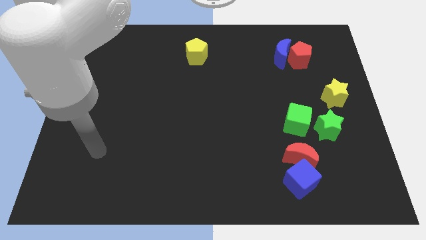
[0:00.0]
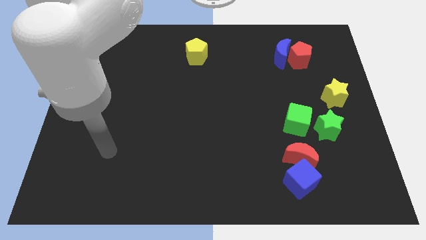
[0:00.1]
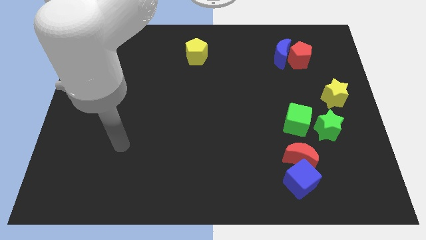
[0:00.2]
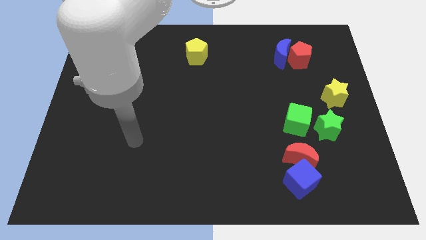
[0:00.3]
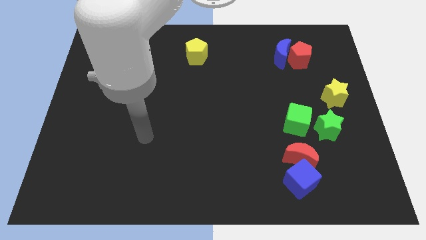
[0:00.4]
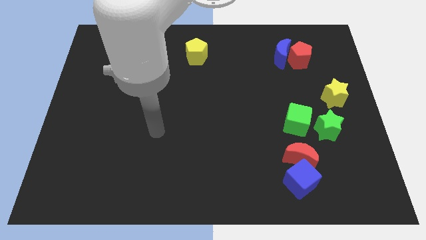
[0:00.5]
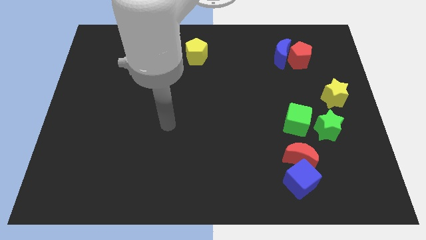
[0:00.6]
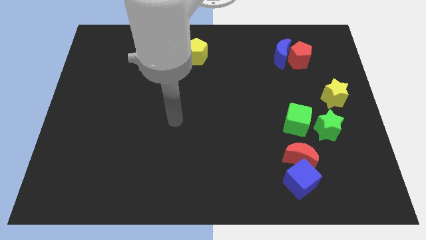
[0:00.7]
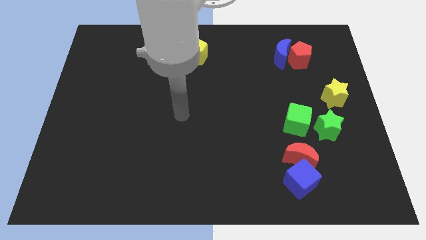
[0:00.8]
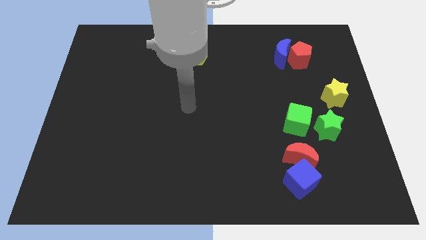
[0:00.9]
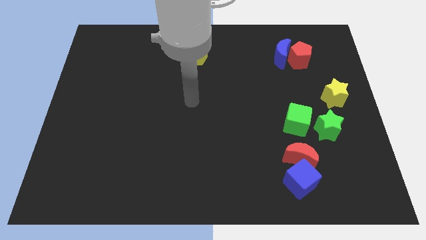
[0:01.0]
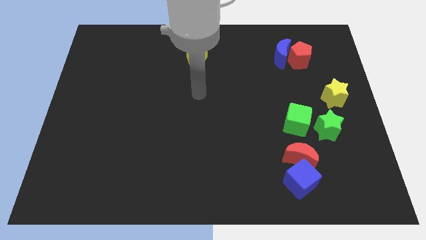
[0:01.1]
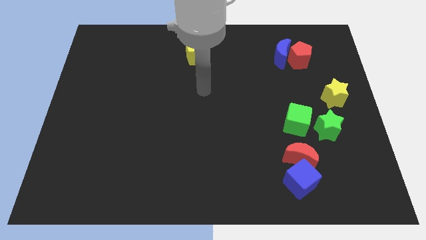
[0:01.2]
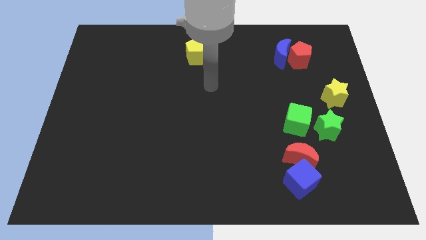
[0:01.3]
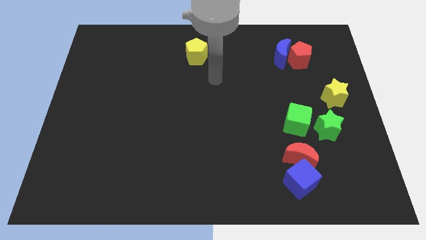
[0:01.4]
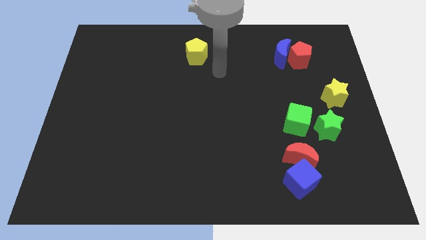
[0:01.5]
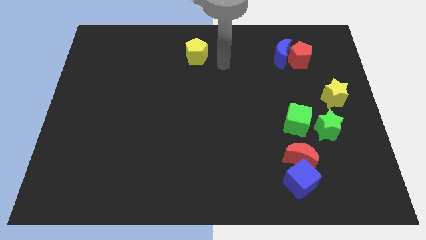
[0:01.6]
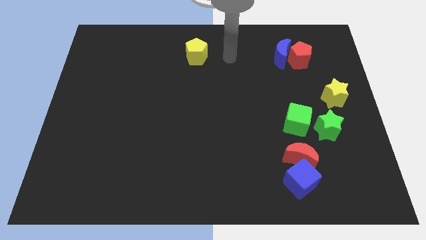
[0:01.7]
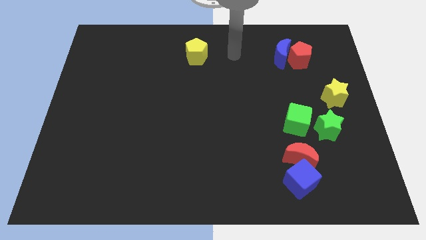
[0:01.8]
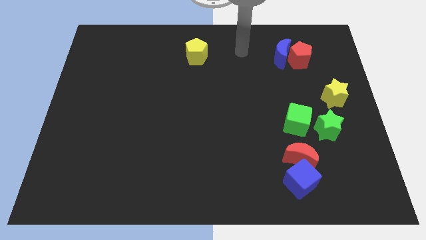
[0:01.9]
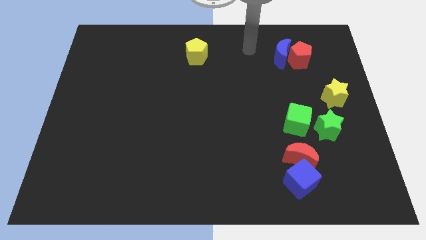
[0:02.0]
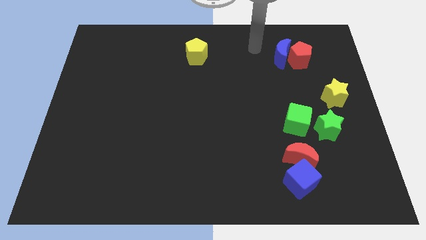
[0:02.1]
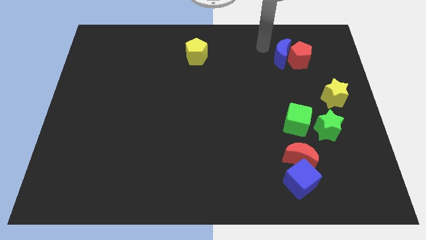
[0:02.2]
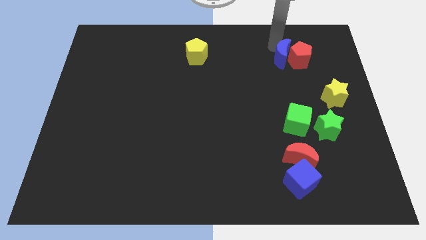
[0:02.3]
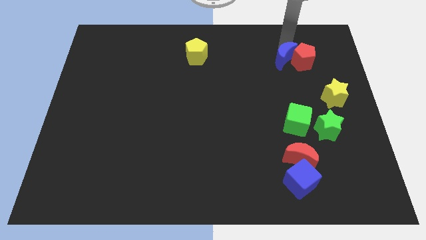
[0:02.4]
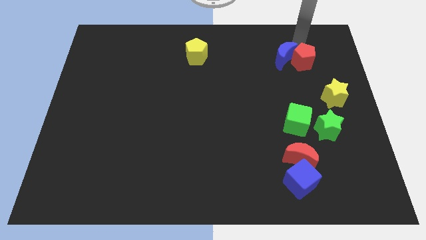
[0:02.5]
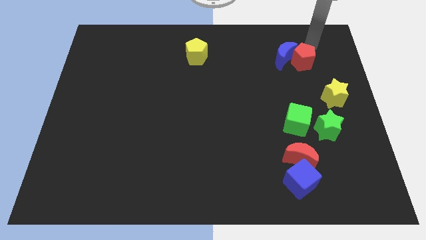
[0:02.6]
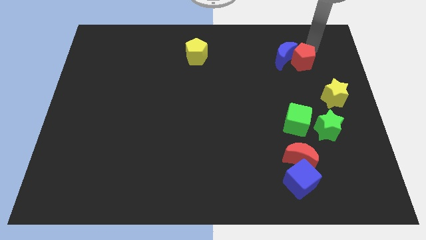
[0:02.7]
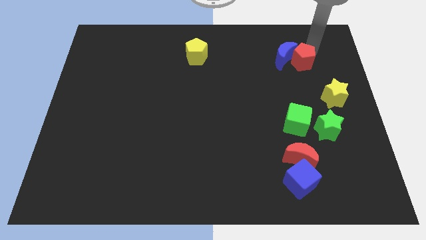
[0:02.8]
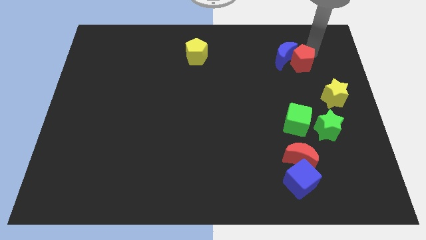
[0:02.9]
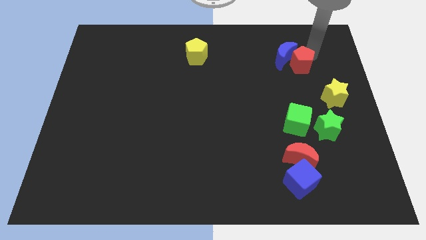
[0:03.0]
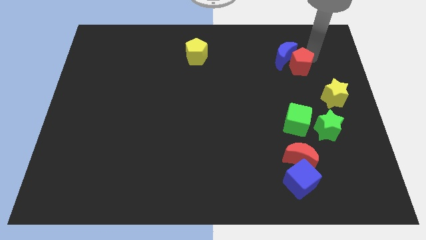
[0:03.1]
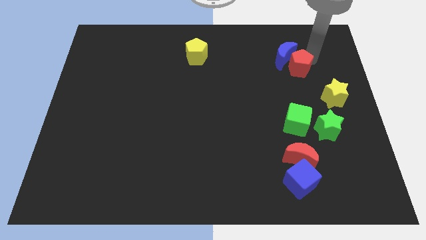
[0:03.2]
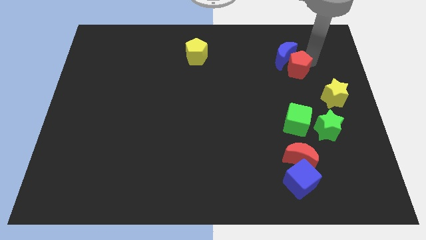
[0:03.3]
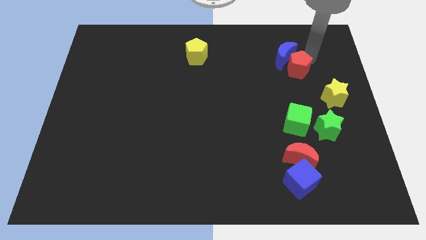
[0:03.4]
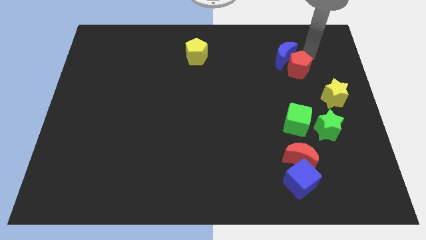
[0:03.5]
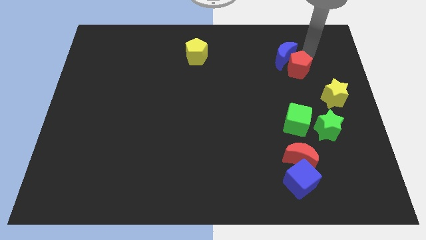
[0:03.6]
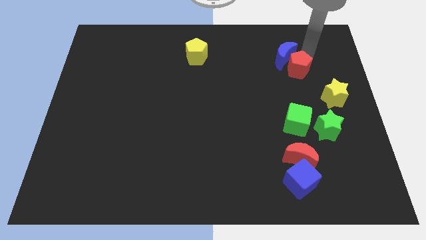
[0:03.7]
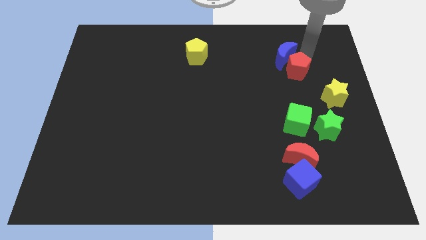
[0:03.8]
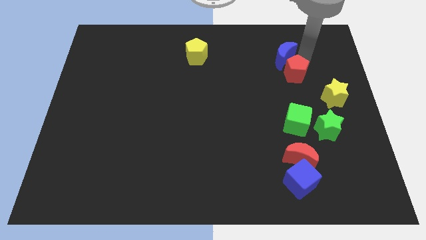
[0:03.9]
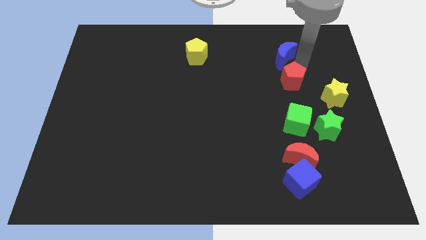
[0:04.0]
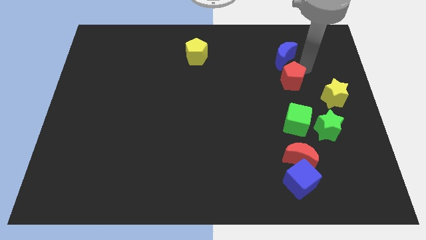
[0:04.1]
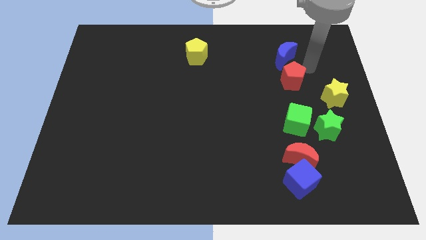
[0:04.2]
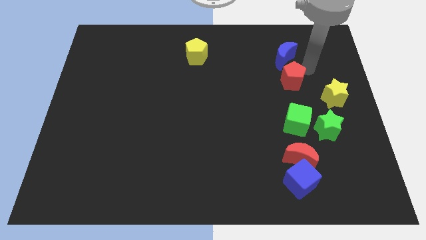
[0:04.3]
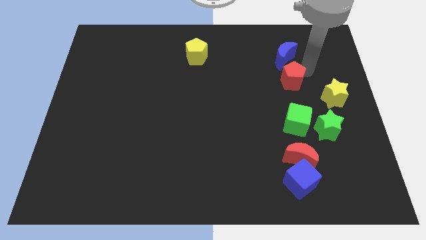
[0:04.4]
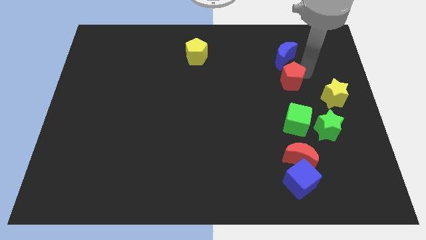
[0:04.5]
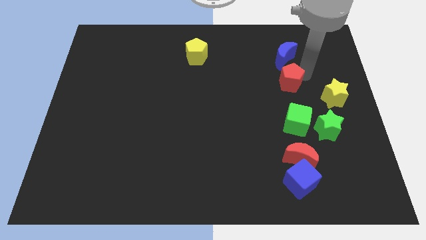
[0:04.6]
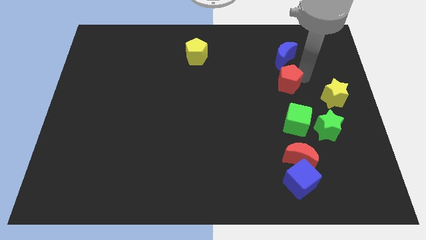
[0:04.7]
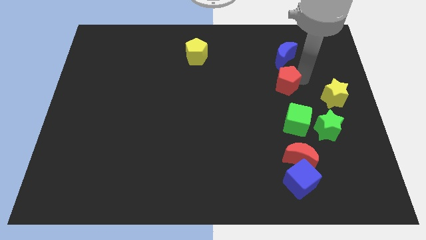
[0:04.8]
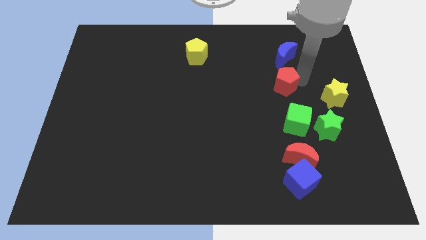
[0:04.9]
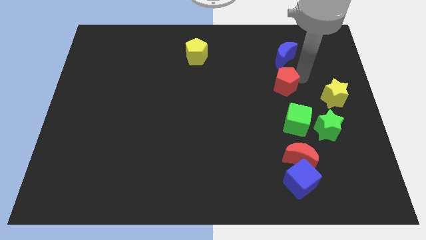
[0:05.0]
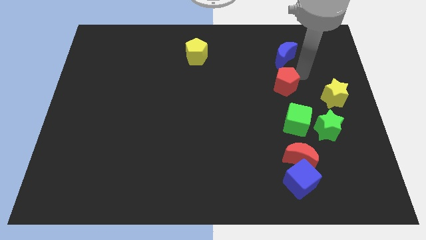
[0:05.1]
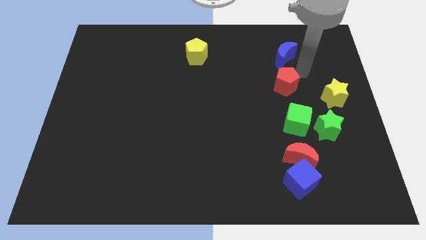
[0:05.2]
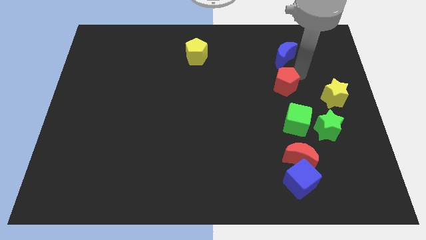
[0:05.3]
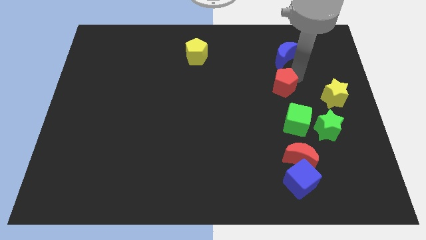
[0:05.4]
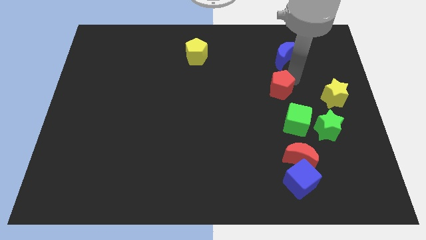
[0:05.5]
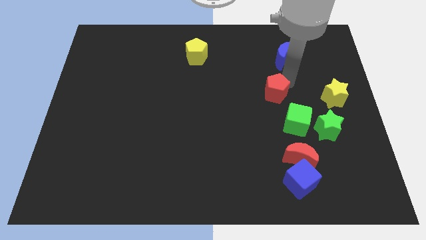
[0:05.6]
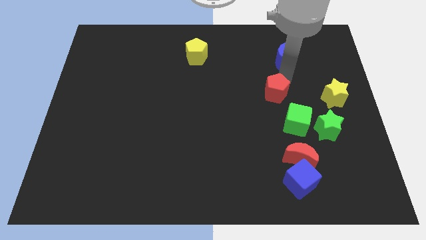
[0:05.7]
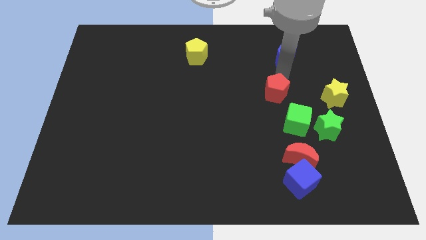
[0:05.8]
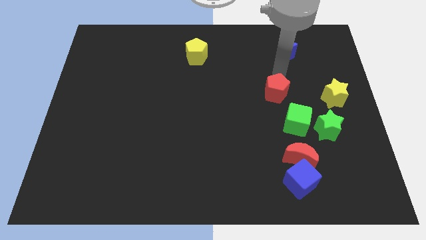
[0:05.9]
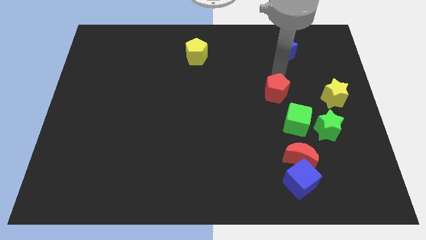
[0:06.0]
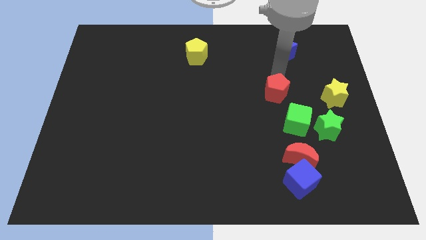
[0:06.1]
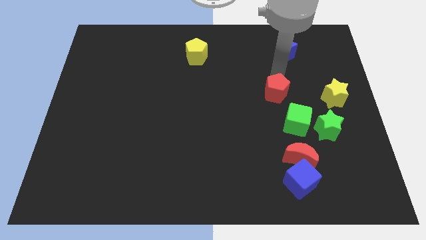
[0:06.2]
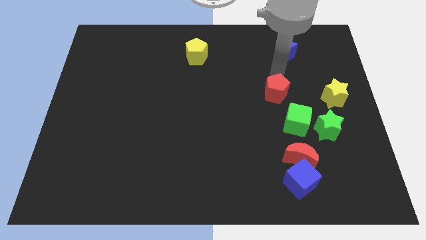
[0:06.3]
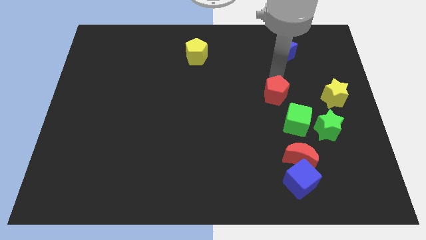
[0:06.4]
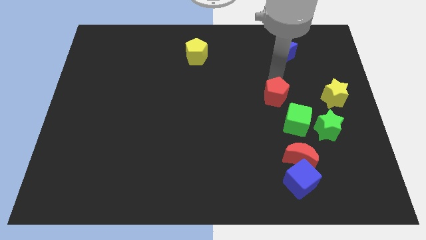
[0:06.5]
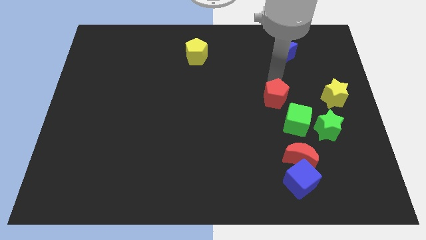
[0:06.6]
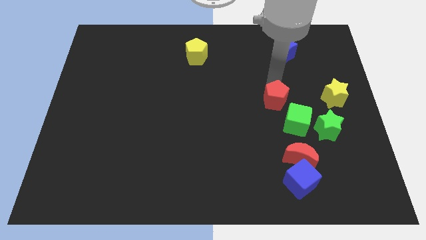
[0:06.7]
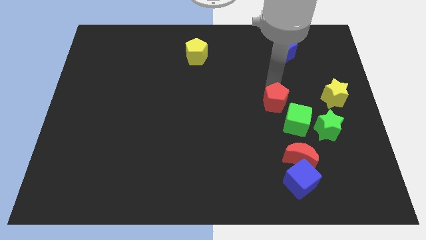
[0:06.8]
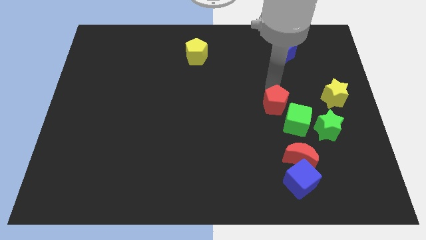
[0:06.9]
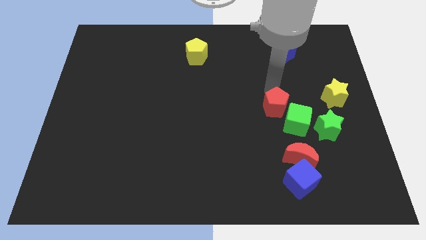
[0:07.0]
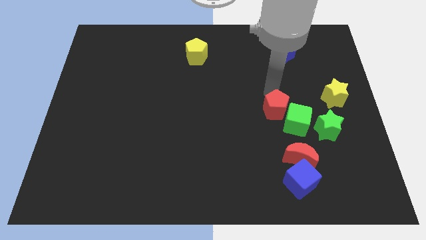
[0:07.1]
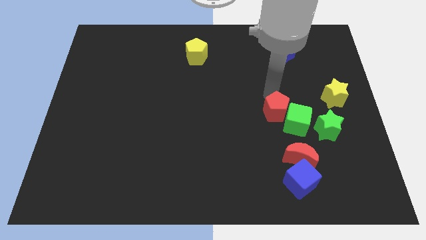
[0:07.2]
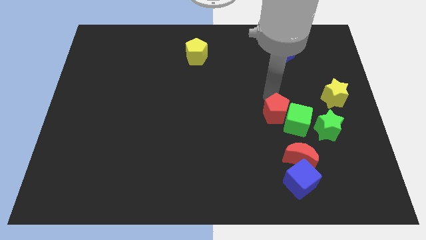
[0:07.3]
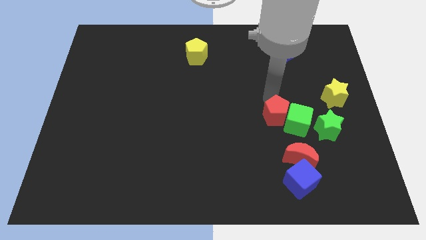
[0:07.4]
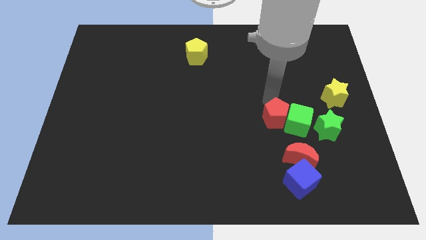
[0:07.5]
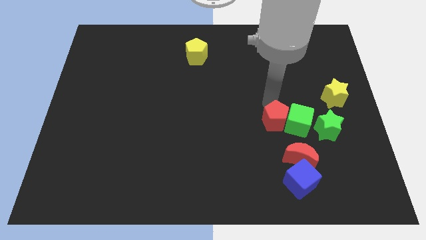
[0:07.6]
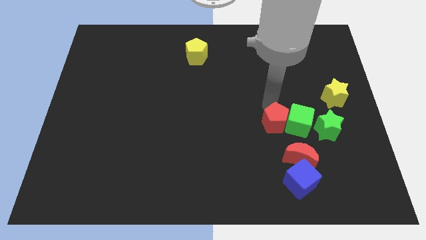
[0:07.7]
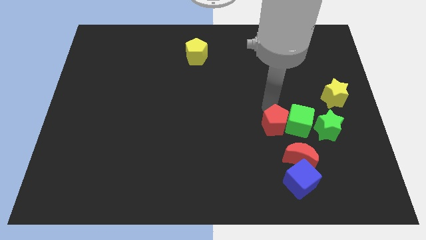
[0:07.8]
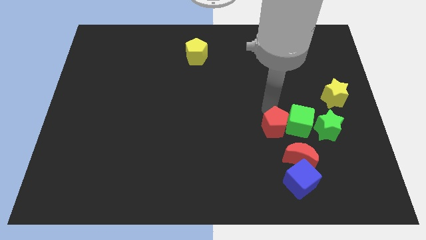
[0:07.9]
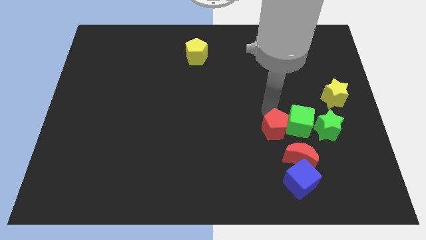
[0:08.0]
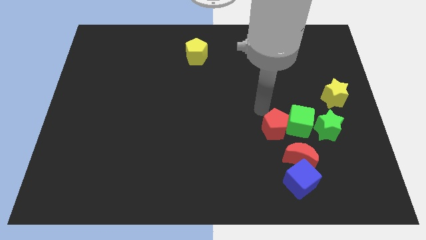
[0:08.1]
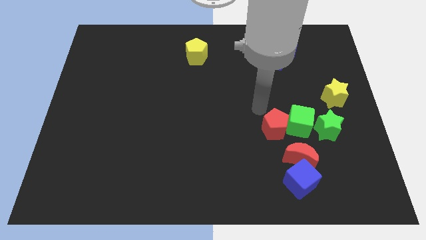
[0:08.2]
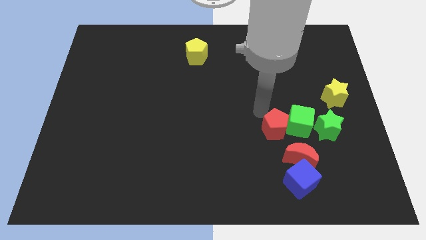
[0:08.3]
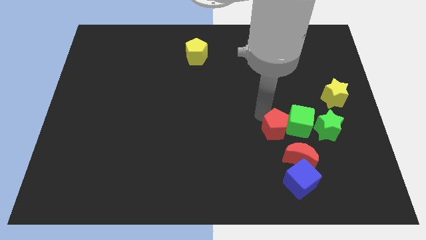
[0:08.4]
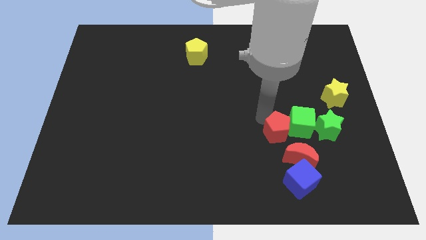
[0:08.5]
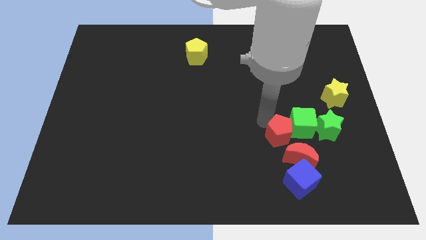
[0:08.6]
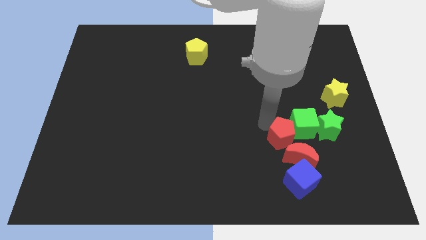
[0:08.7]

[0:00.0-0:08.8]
move the red pentagon towards the red moon
